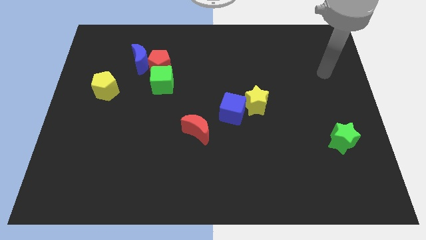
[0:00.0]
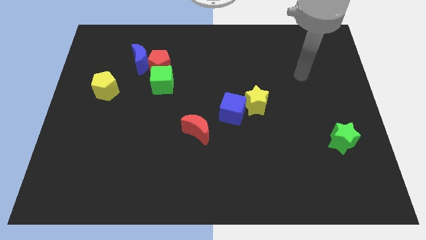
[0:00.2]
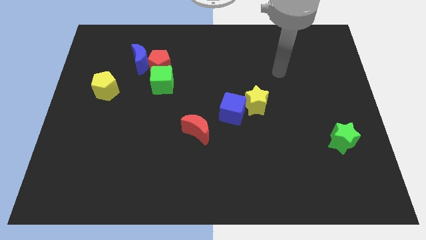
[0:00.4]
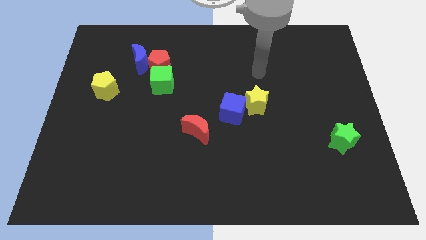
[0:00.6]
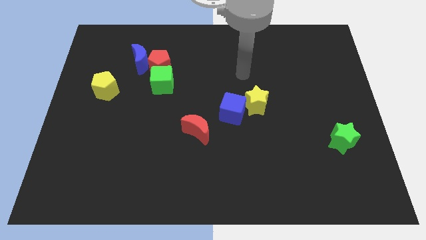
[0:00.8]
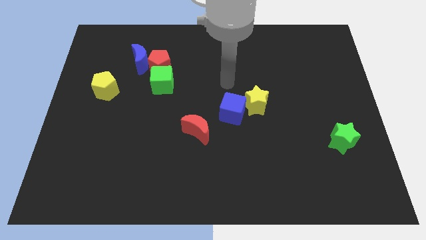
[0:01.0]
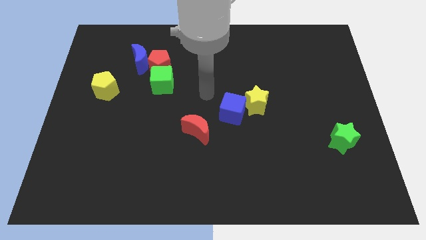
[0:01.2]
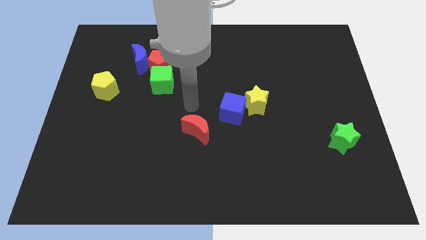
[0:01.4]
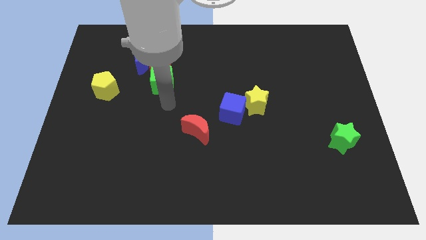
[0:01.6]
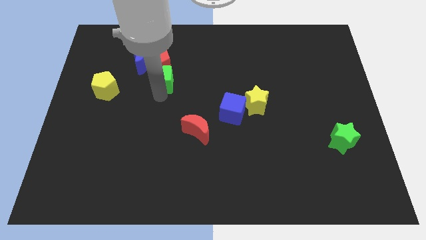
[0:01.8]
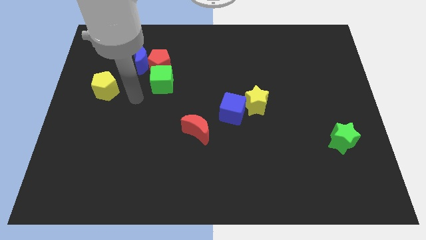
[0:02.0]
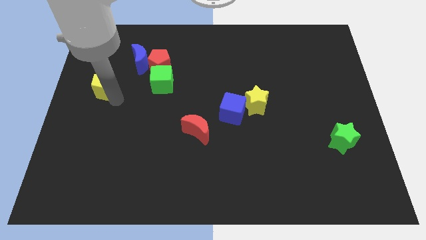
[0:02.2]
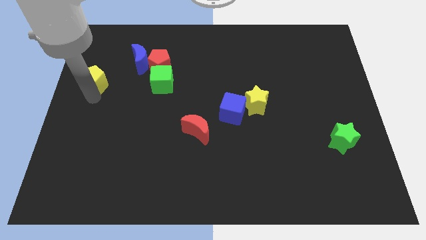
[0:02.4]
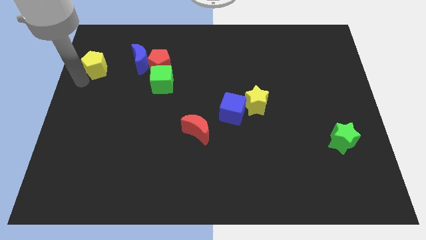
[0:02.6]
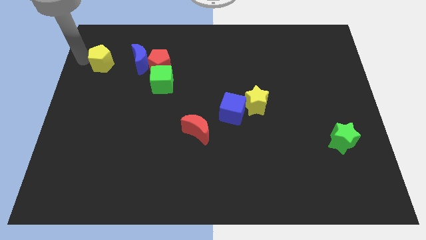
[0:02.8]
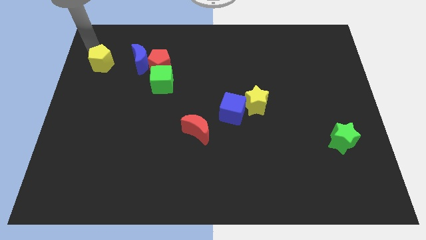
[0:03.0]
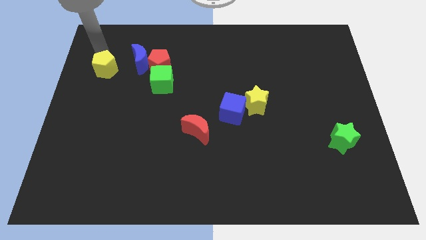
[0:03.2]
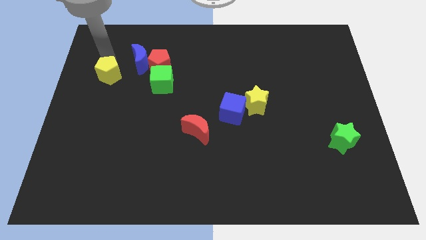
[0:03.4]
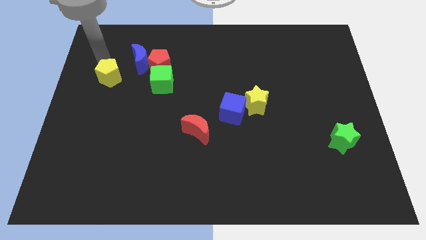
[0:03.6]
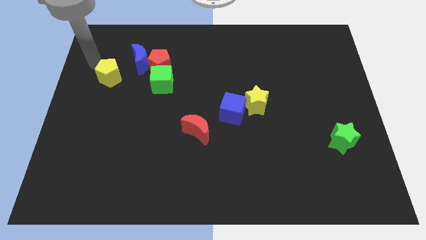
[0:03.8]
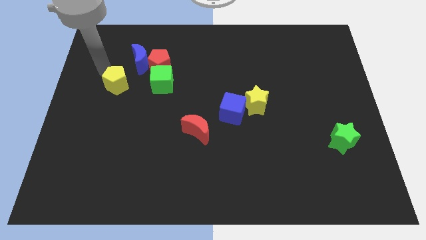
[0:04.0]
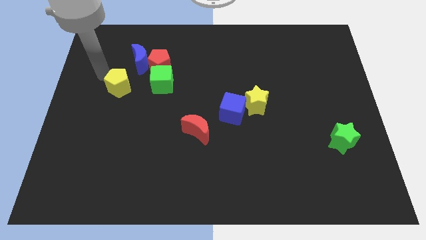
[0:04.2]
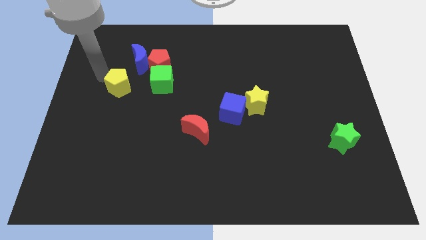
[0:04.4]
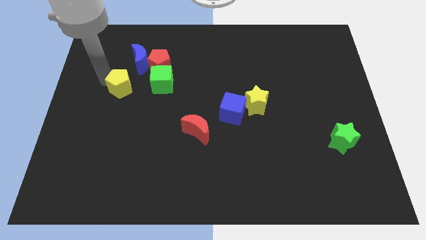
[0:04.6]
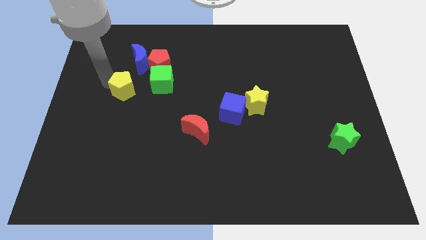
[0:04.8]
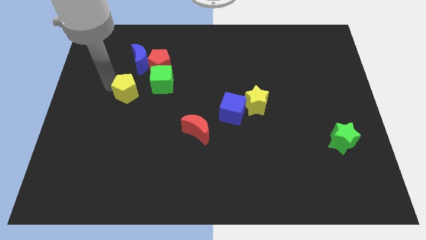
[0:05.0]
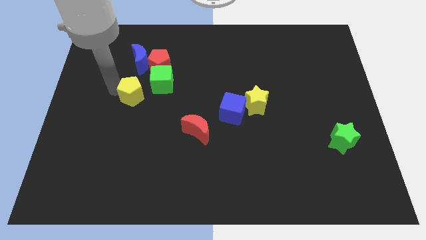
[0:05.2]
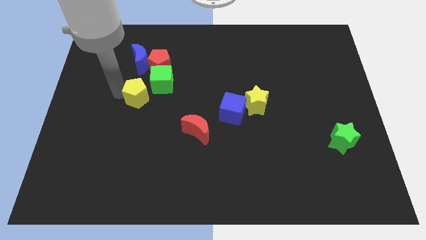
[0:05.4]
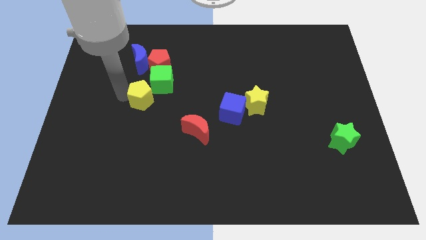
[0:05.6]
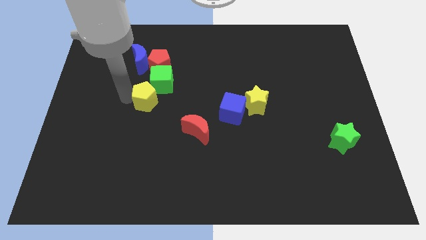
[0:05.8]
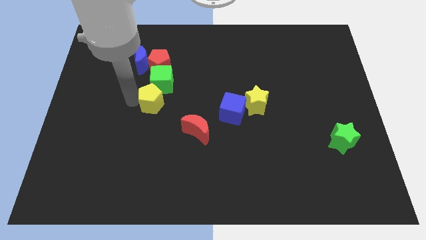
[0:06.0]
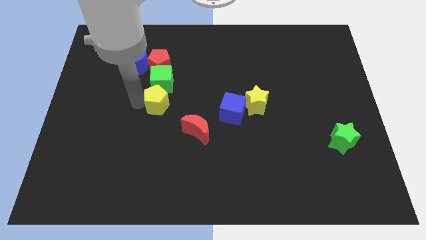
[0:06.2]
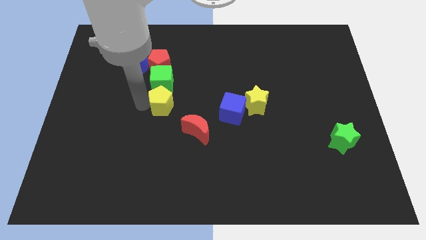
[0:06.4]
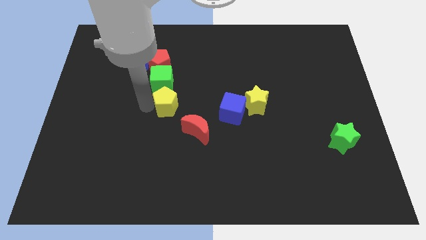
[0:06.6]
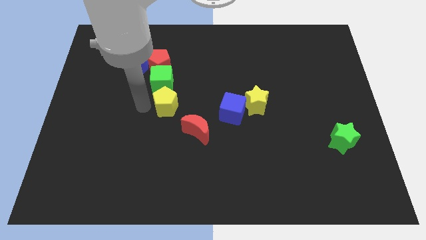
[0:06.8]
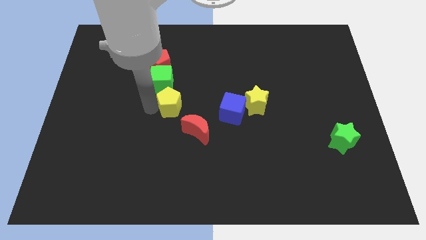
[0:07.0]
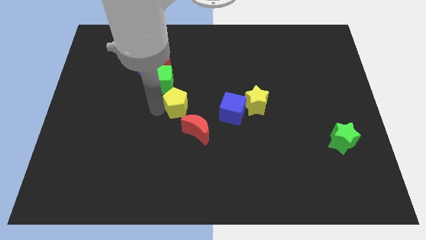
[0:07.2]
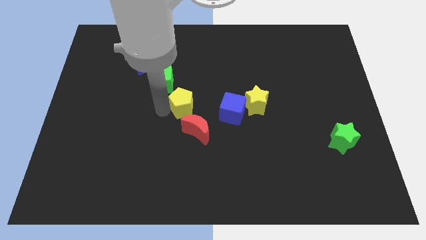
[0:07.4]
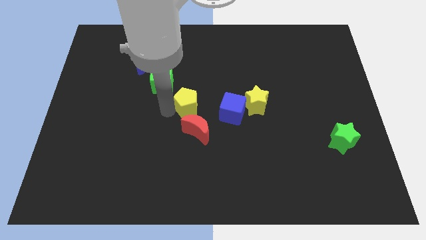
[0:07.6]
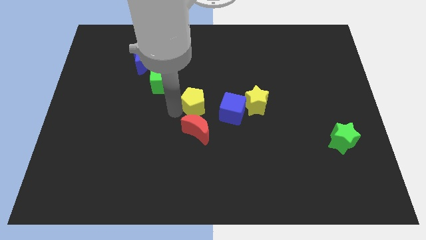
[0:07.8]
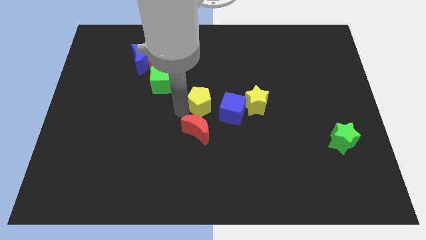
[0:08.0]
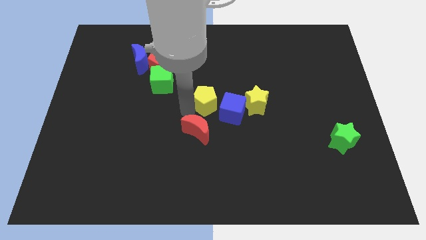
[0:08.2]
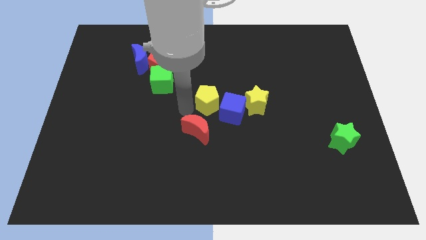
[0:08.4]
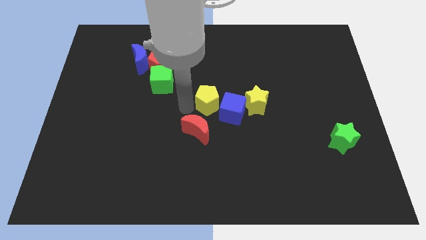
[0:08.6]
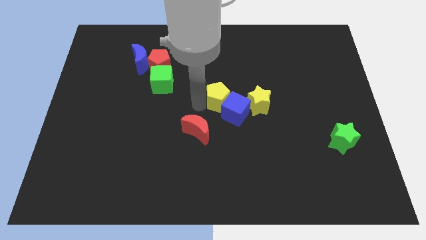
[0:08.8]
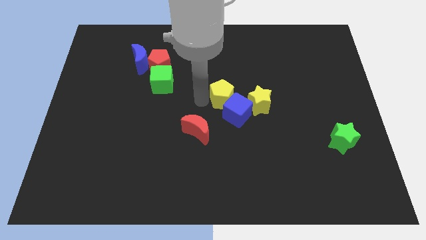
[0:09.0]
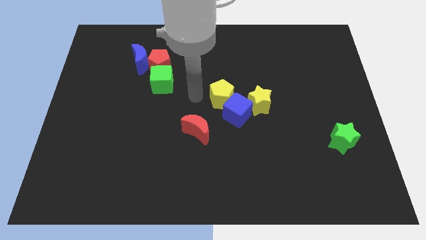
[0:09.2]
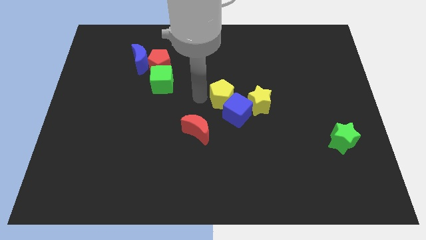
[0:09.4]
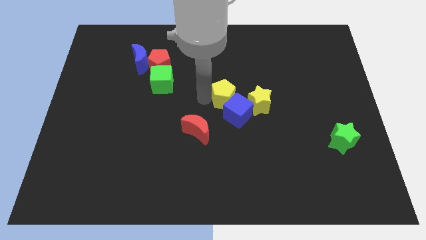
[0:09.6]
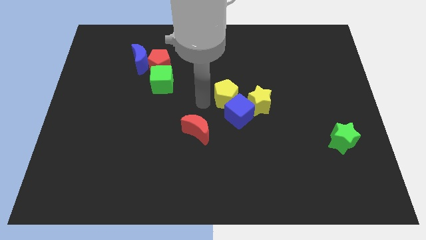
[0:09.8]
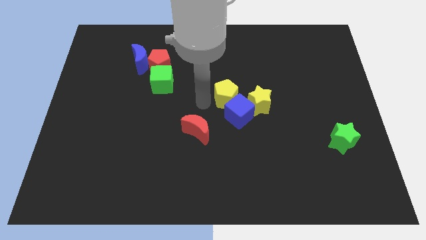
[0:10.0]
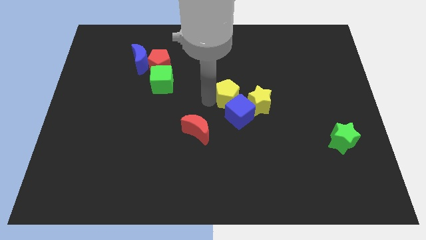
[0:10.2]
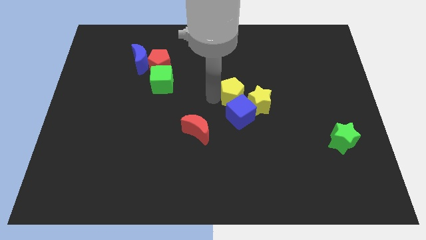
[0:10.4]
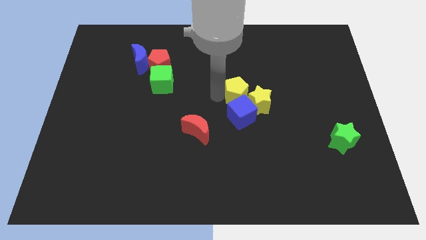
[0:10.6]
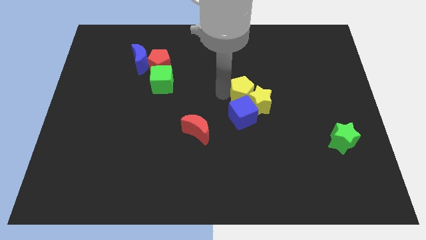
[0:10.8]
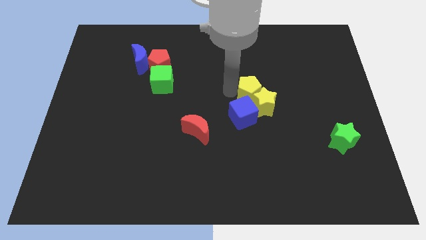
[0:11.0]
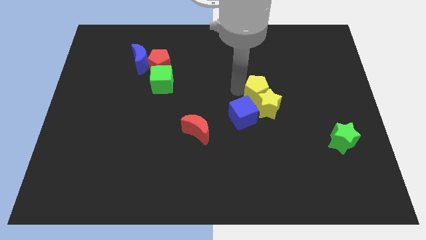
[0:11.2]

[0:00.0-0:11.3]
push the yellow pentagon to the top right side of the yellow star

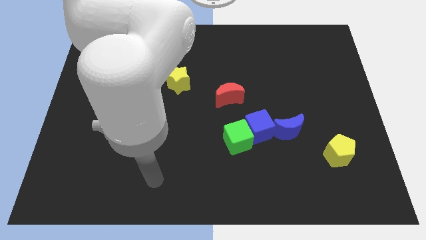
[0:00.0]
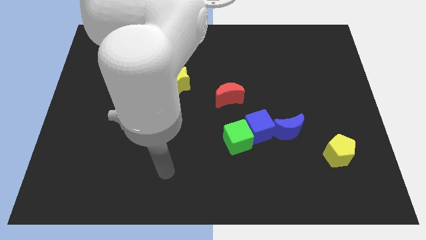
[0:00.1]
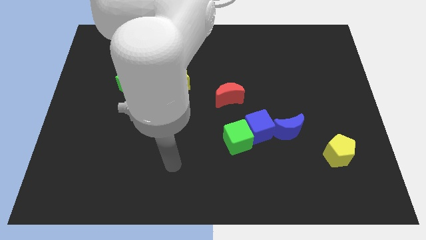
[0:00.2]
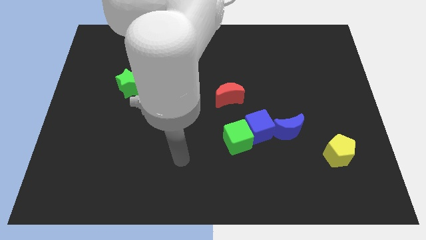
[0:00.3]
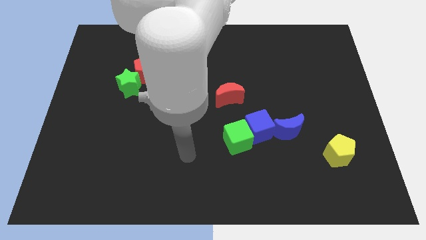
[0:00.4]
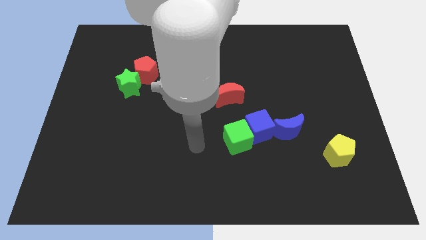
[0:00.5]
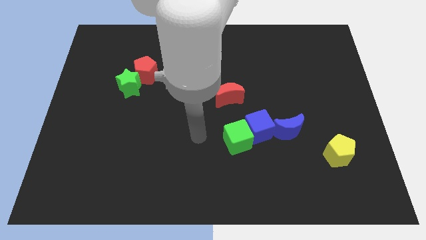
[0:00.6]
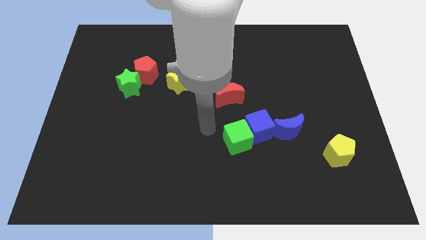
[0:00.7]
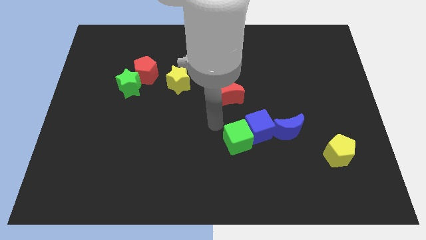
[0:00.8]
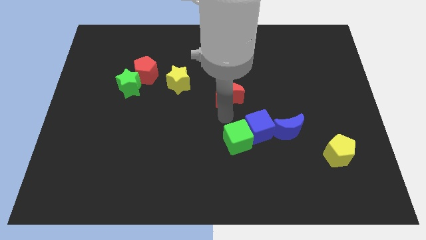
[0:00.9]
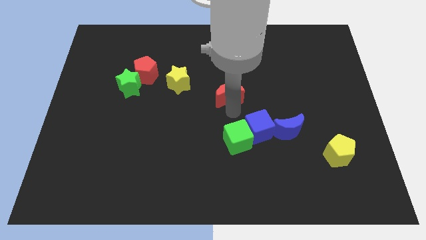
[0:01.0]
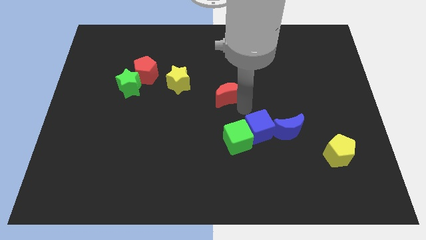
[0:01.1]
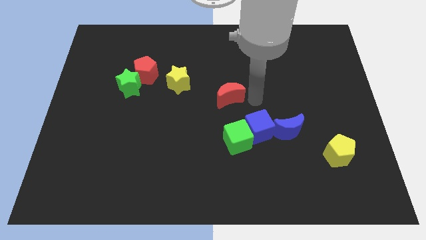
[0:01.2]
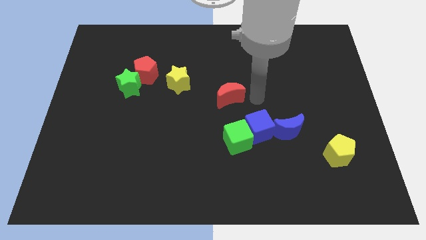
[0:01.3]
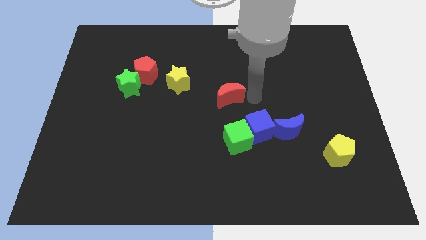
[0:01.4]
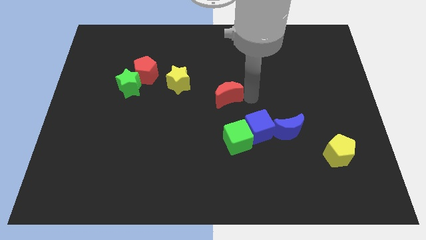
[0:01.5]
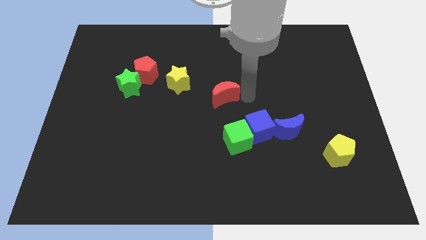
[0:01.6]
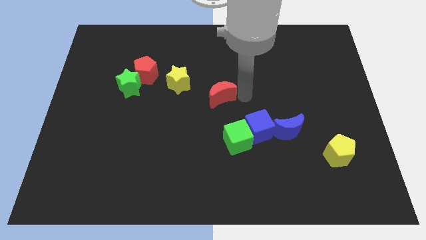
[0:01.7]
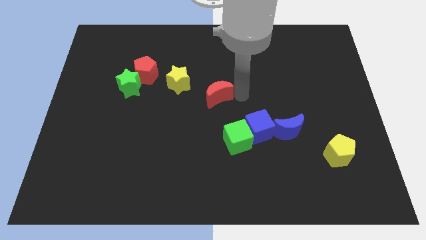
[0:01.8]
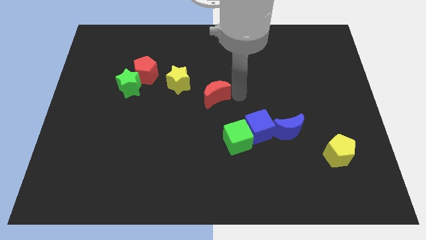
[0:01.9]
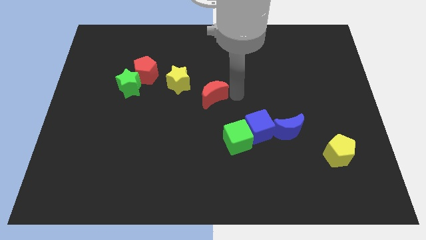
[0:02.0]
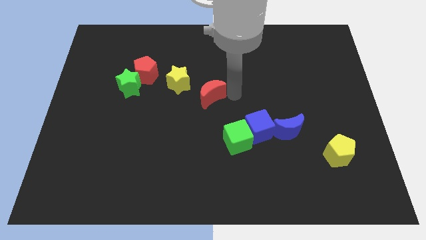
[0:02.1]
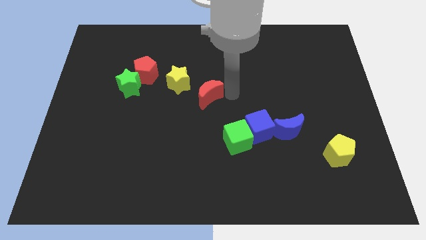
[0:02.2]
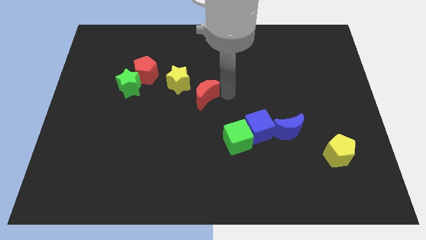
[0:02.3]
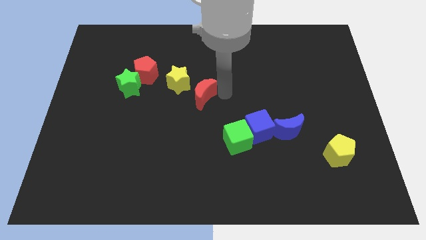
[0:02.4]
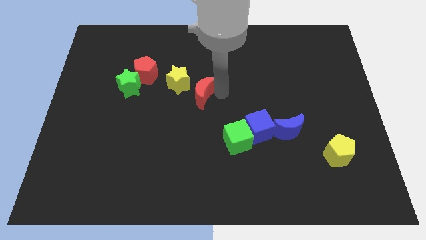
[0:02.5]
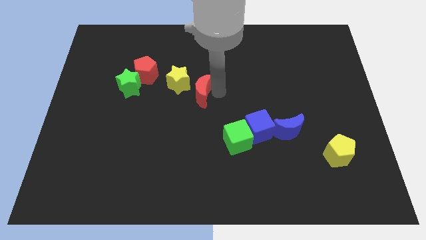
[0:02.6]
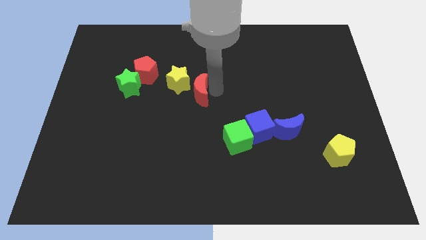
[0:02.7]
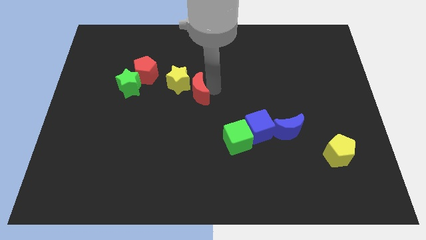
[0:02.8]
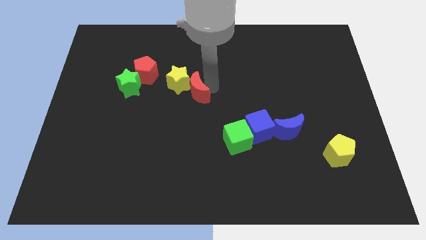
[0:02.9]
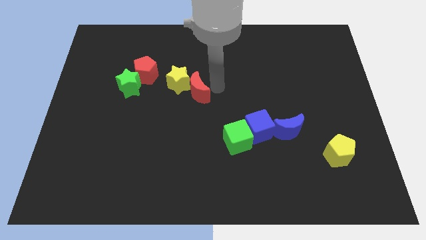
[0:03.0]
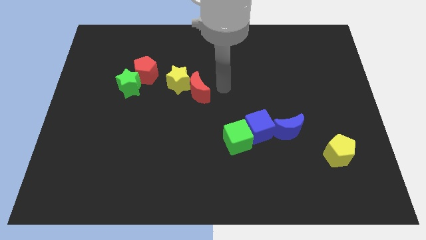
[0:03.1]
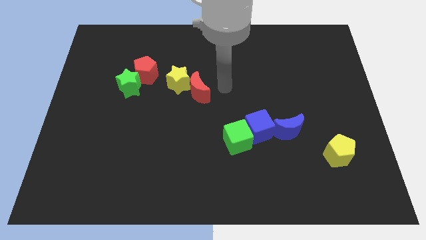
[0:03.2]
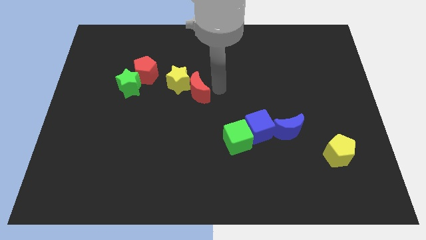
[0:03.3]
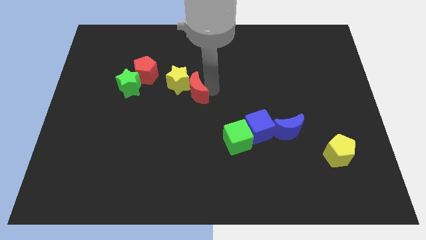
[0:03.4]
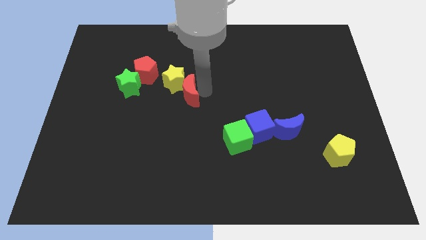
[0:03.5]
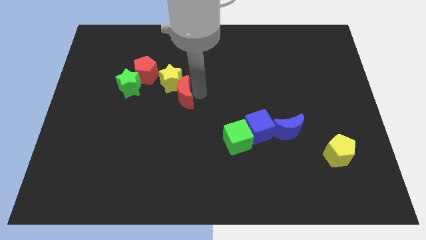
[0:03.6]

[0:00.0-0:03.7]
move the red moon to the bottom right of the red pentagon
